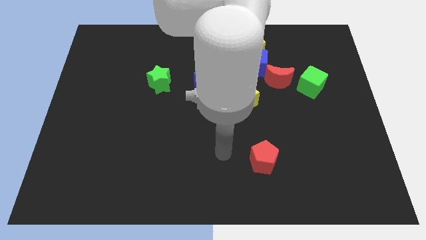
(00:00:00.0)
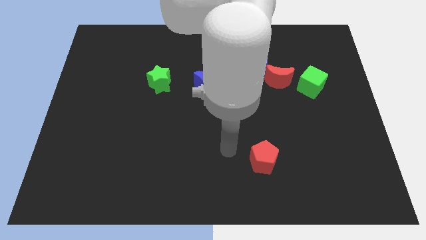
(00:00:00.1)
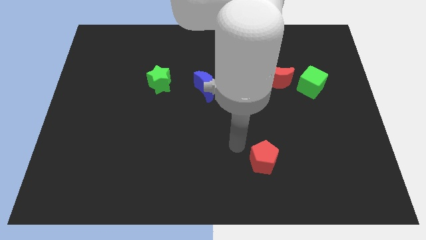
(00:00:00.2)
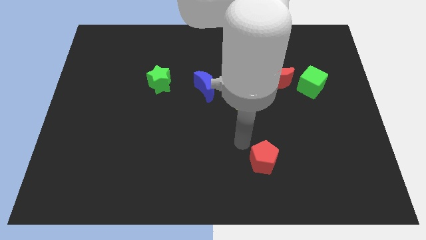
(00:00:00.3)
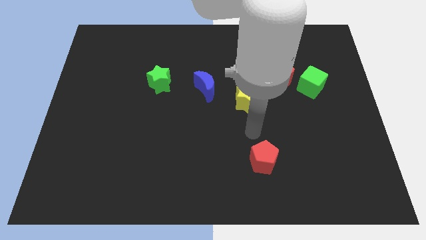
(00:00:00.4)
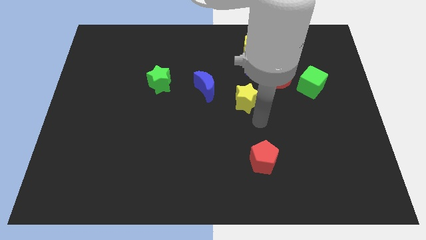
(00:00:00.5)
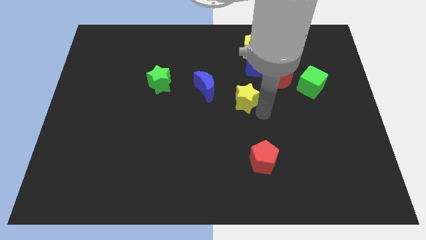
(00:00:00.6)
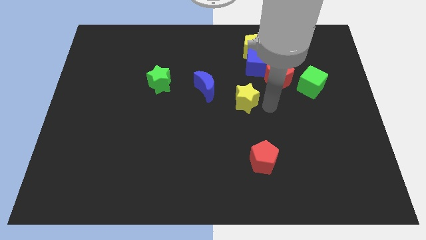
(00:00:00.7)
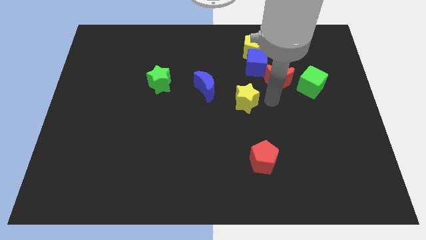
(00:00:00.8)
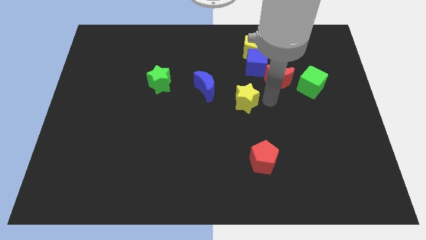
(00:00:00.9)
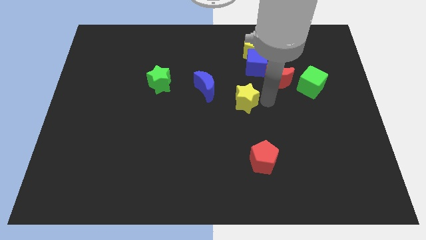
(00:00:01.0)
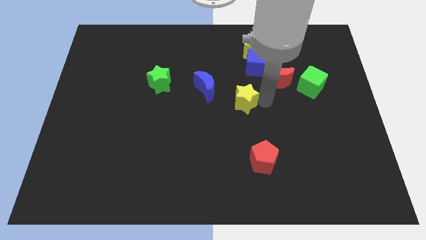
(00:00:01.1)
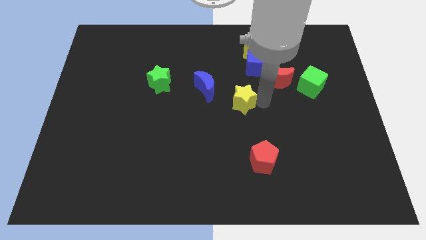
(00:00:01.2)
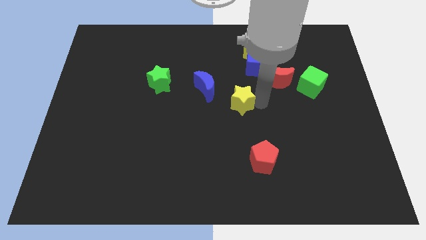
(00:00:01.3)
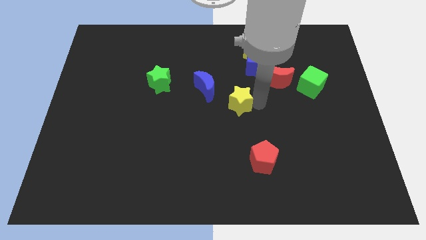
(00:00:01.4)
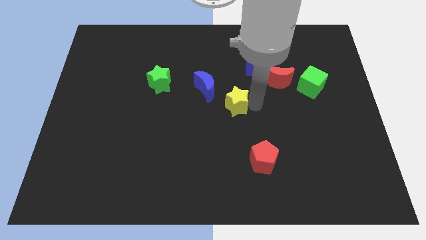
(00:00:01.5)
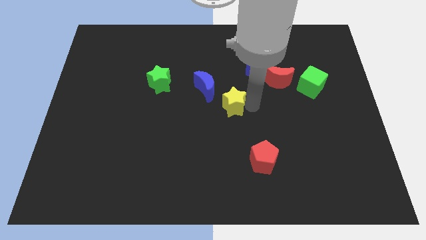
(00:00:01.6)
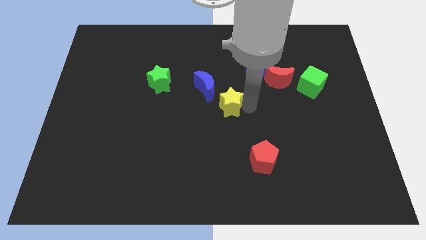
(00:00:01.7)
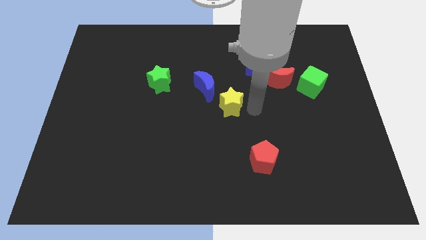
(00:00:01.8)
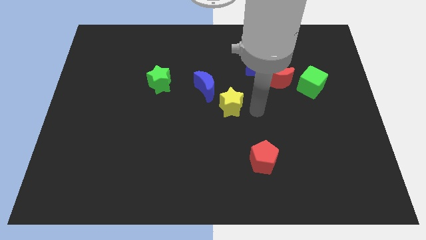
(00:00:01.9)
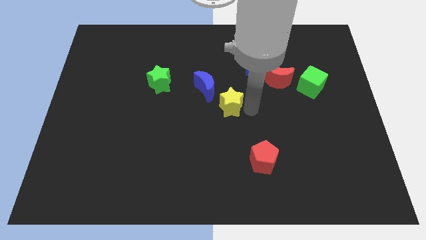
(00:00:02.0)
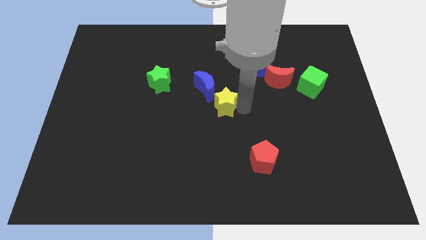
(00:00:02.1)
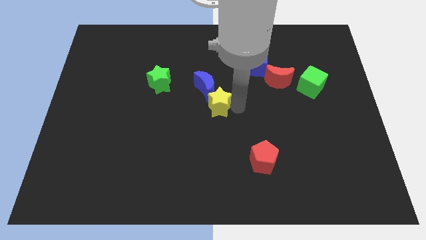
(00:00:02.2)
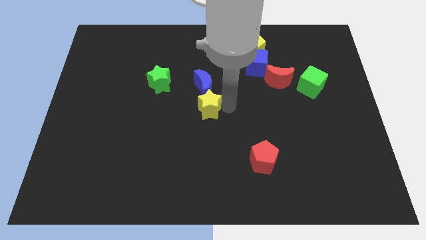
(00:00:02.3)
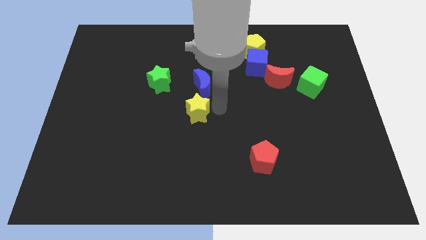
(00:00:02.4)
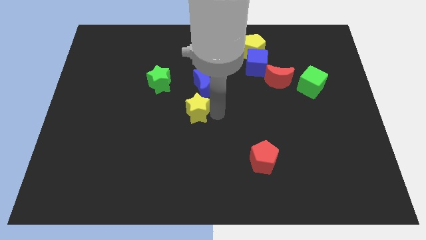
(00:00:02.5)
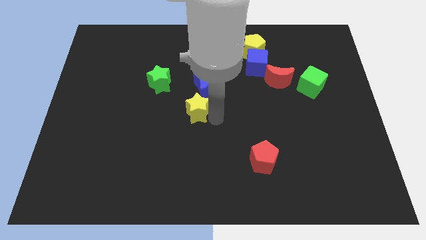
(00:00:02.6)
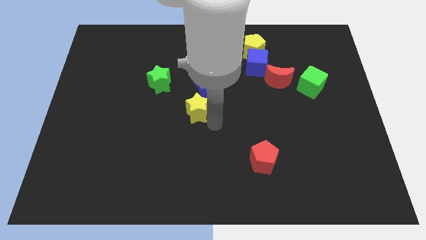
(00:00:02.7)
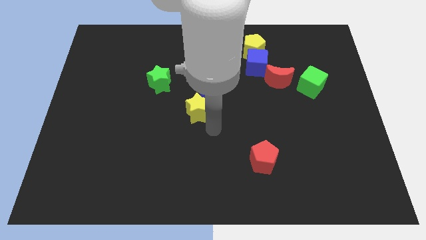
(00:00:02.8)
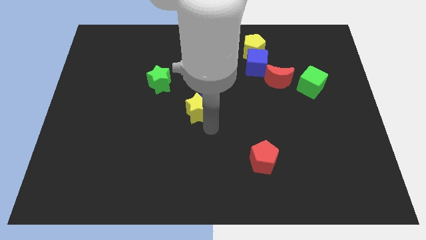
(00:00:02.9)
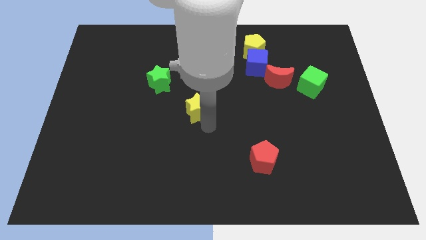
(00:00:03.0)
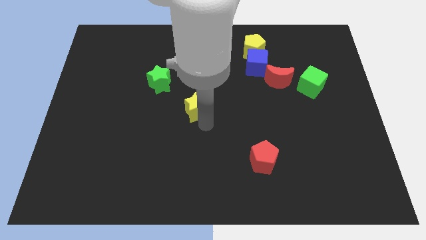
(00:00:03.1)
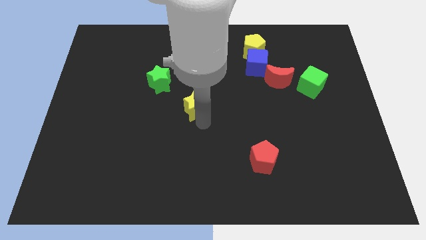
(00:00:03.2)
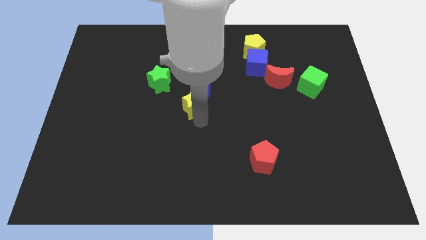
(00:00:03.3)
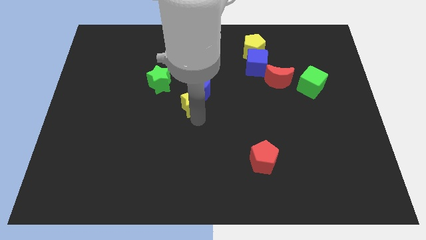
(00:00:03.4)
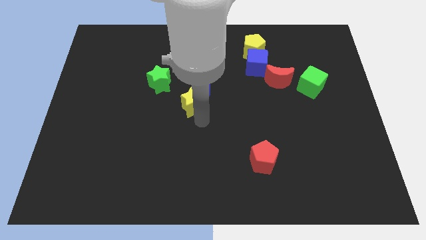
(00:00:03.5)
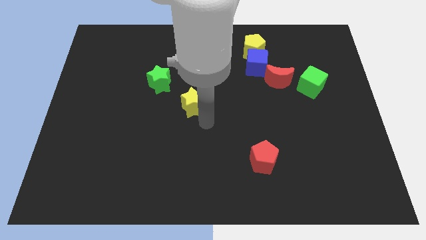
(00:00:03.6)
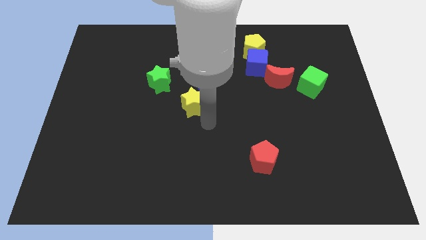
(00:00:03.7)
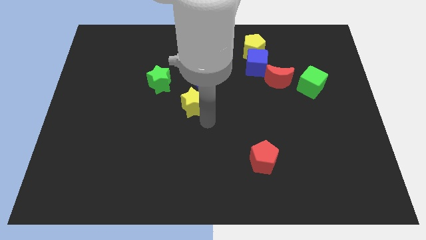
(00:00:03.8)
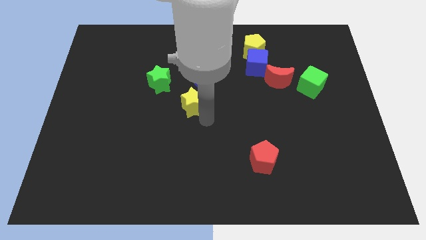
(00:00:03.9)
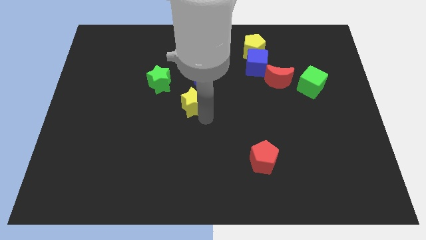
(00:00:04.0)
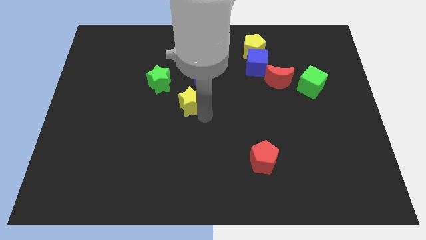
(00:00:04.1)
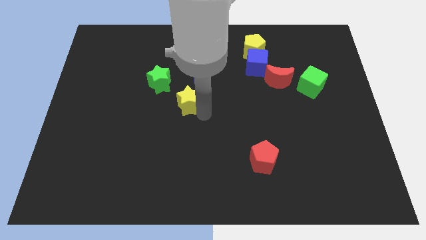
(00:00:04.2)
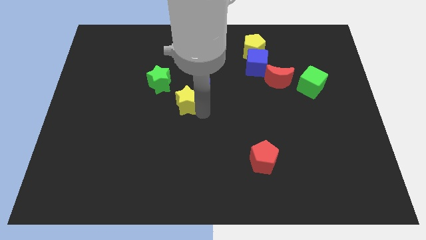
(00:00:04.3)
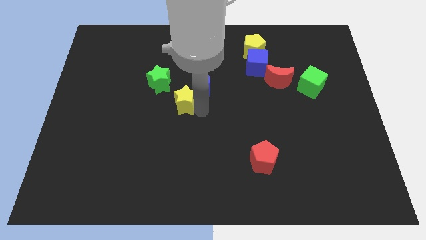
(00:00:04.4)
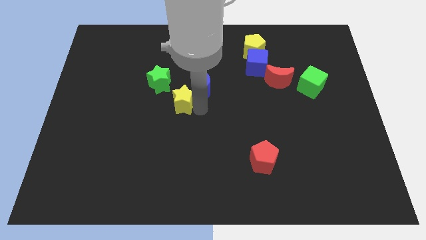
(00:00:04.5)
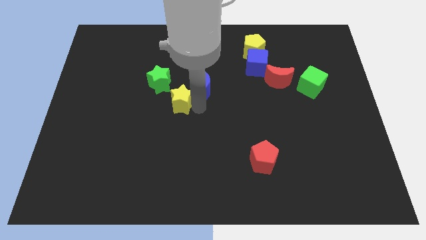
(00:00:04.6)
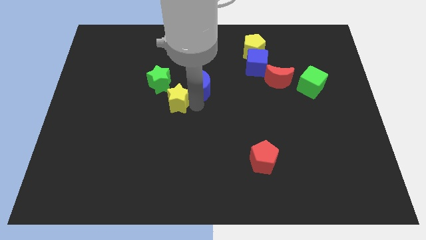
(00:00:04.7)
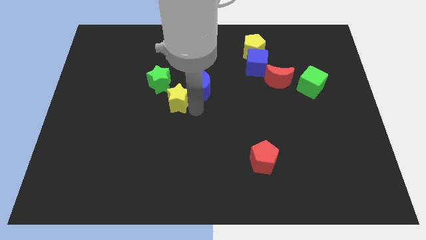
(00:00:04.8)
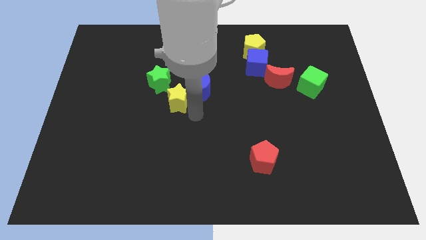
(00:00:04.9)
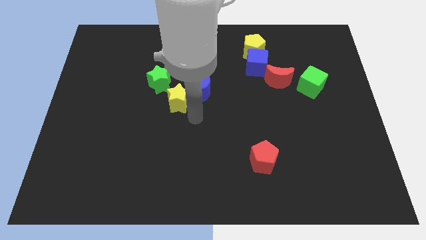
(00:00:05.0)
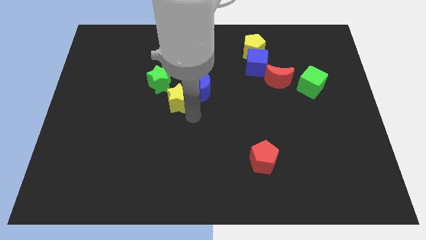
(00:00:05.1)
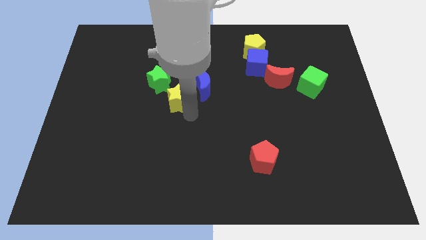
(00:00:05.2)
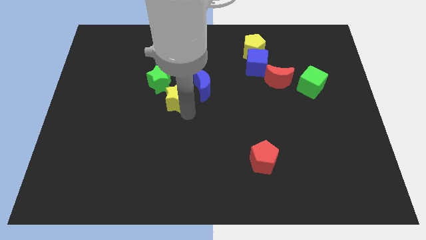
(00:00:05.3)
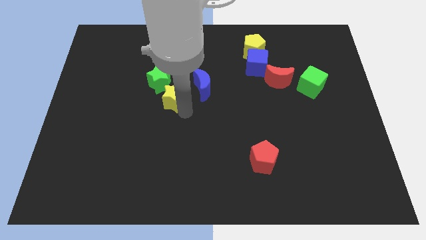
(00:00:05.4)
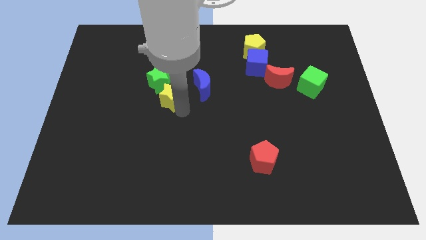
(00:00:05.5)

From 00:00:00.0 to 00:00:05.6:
slide the yellow star next to the green star

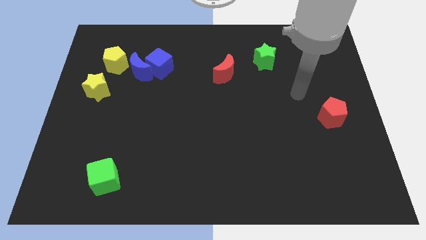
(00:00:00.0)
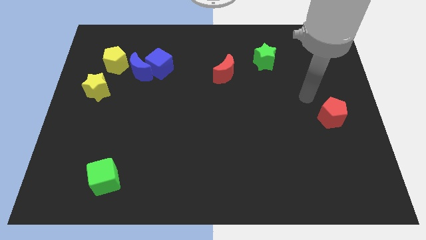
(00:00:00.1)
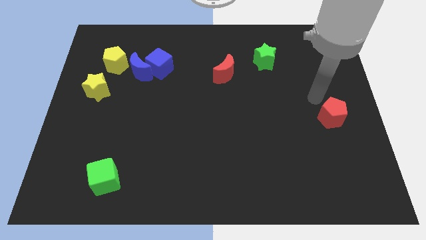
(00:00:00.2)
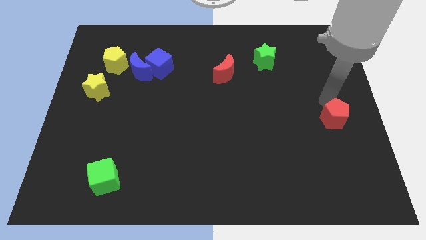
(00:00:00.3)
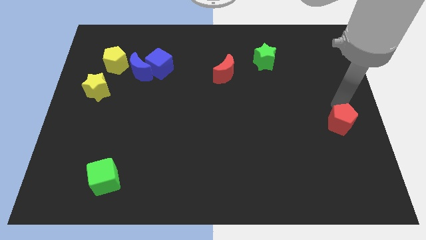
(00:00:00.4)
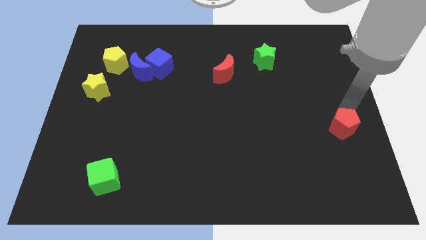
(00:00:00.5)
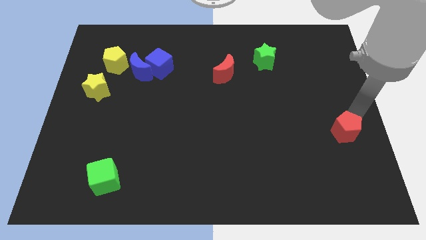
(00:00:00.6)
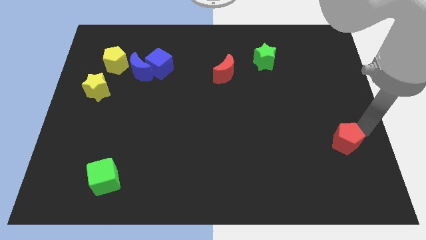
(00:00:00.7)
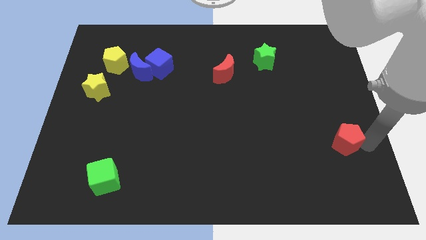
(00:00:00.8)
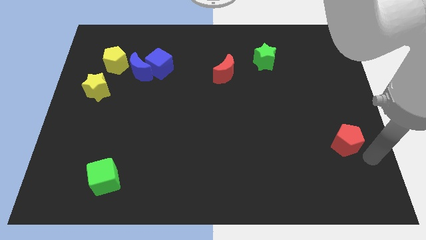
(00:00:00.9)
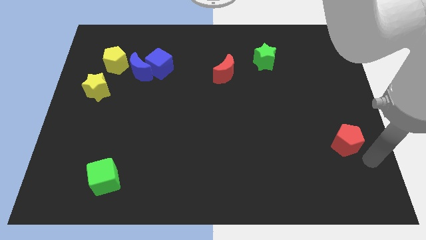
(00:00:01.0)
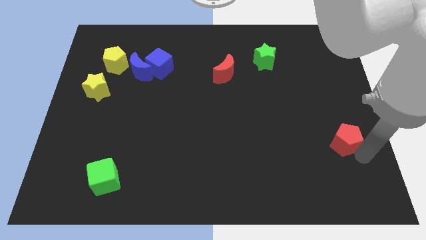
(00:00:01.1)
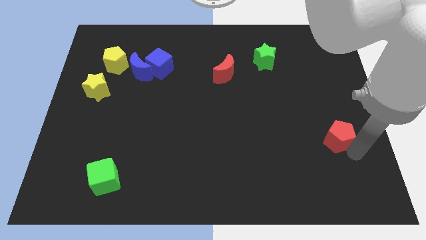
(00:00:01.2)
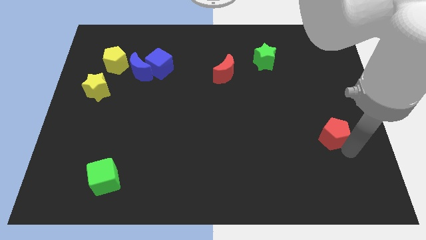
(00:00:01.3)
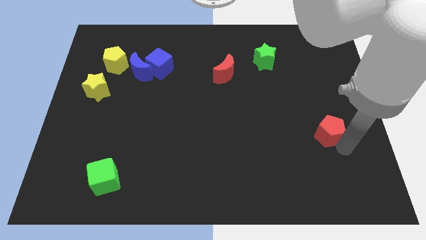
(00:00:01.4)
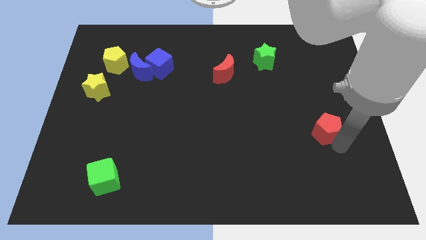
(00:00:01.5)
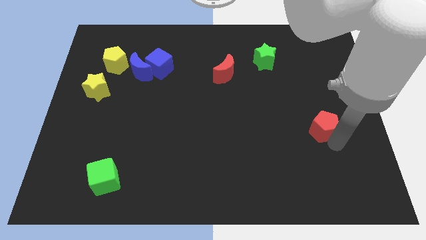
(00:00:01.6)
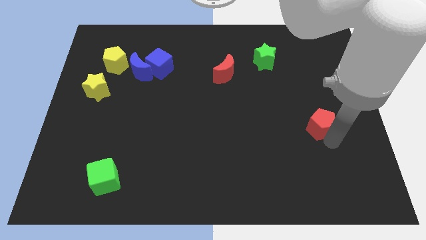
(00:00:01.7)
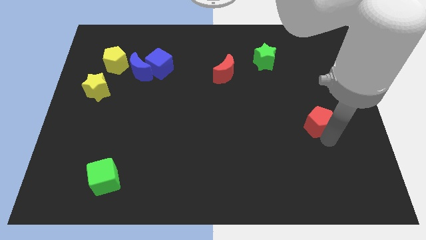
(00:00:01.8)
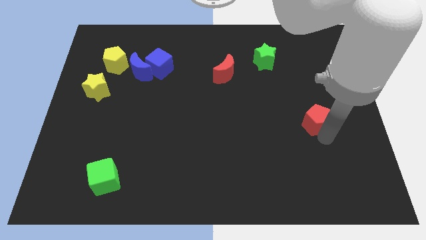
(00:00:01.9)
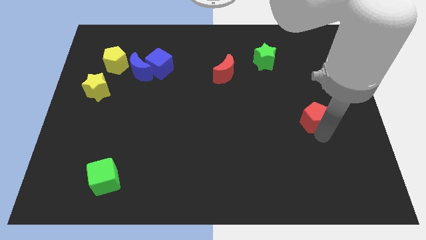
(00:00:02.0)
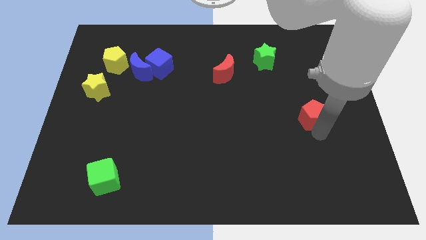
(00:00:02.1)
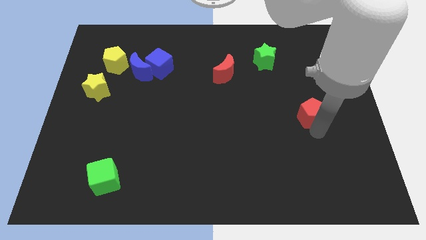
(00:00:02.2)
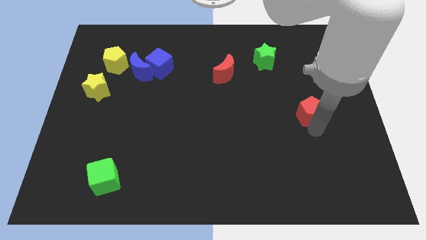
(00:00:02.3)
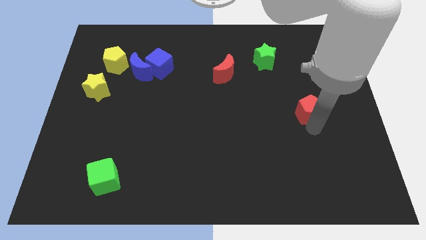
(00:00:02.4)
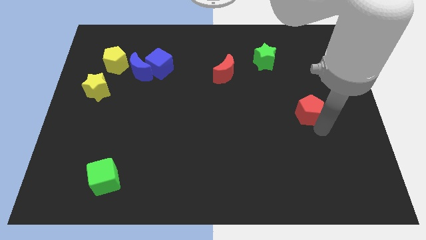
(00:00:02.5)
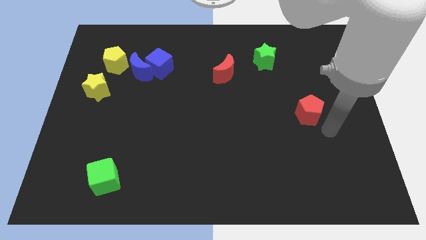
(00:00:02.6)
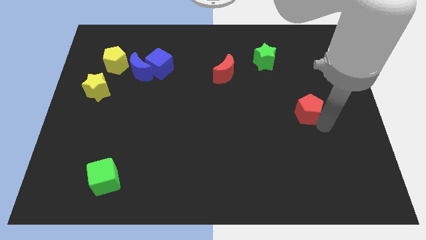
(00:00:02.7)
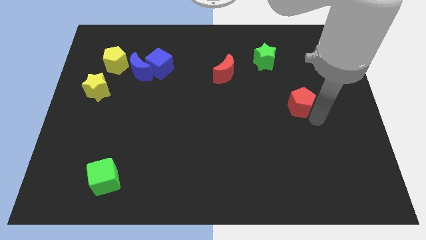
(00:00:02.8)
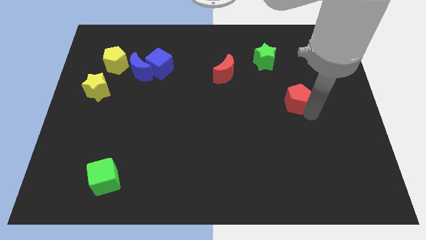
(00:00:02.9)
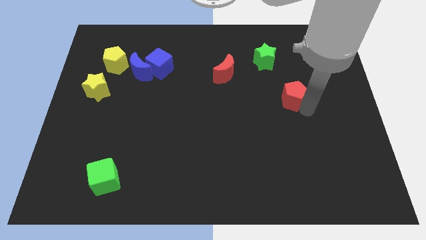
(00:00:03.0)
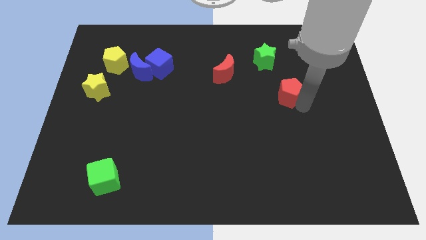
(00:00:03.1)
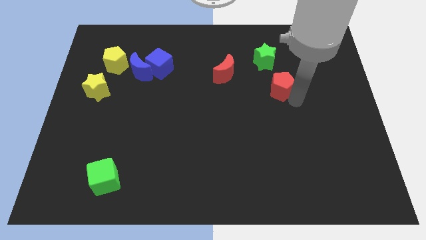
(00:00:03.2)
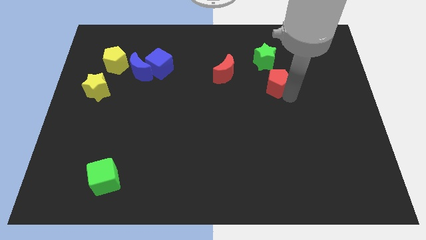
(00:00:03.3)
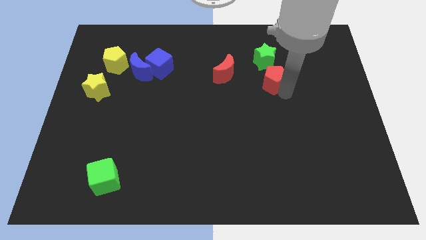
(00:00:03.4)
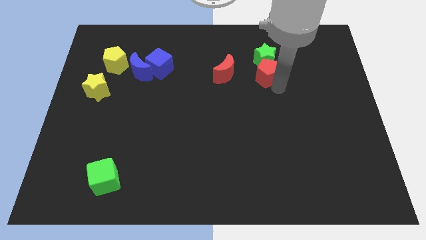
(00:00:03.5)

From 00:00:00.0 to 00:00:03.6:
move the red pentagon towards the green star
